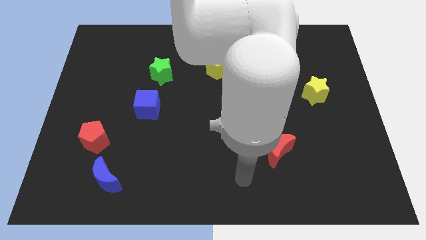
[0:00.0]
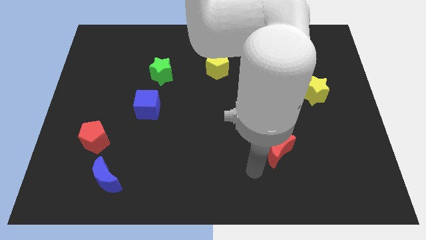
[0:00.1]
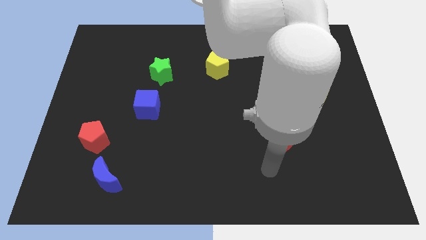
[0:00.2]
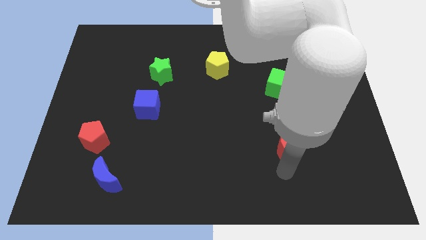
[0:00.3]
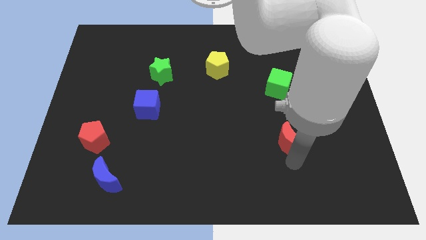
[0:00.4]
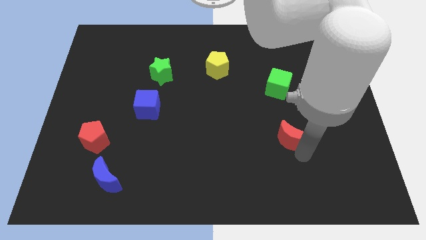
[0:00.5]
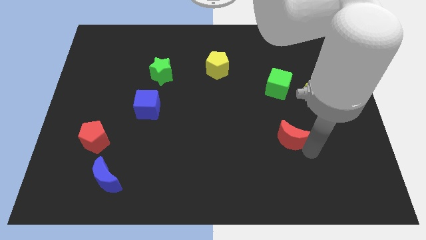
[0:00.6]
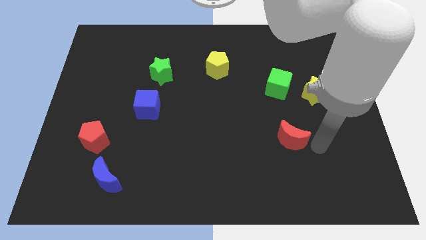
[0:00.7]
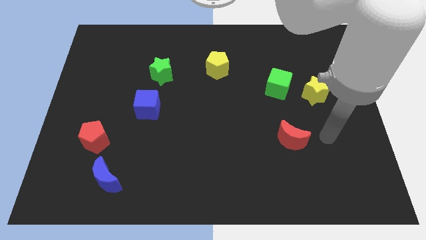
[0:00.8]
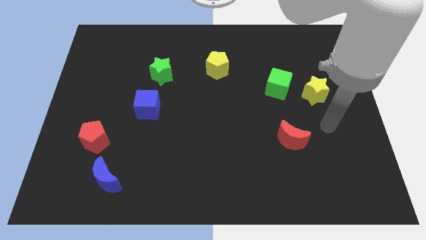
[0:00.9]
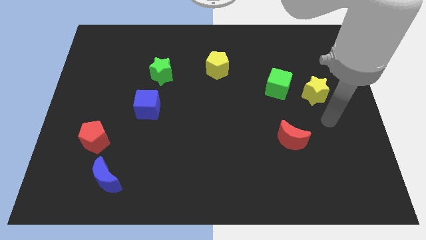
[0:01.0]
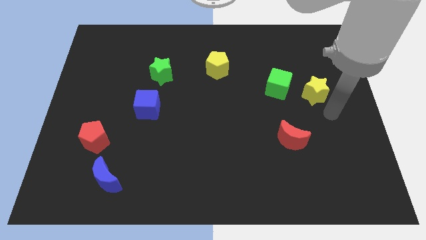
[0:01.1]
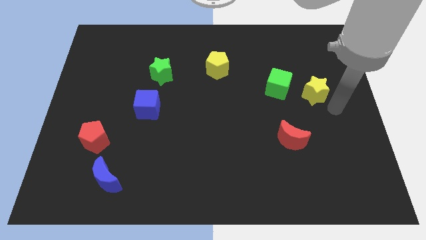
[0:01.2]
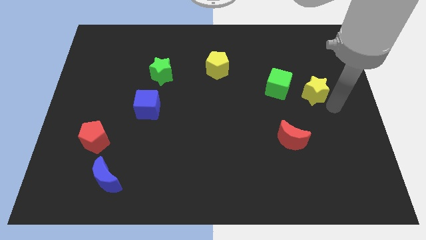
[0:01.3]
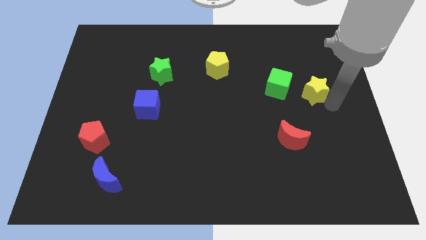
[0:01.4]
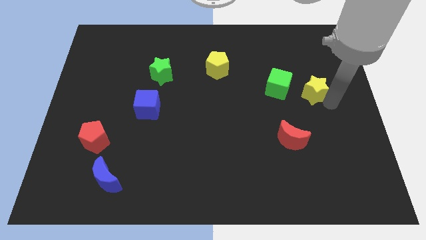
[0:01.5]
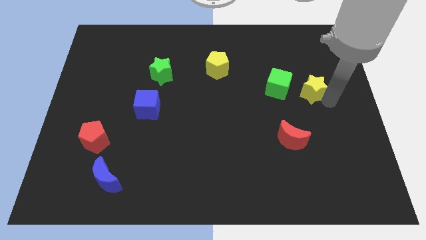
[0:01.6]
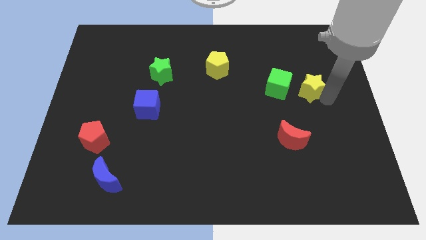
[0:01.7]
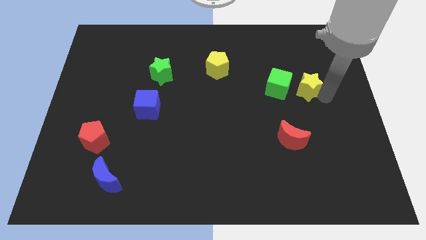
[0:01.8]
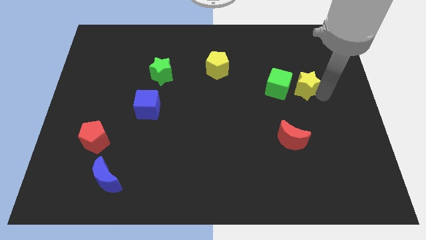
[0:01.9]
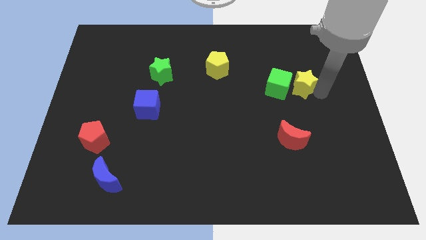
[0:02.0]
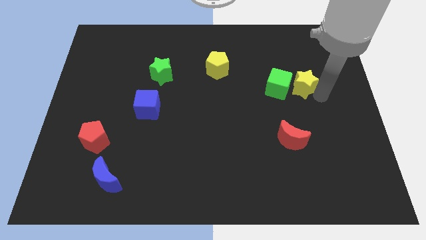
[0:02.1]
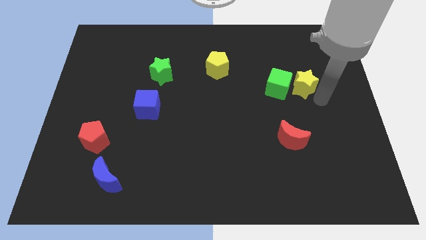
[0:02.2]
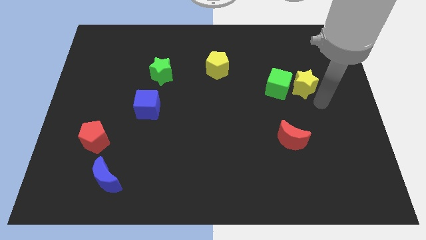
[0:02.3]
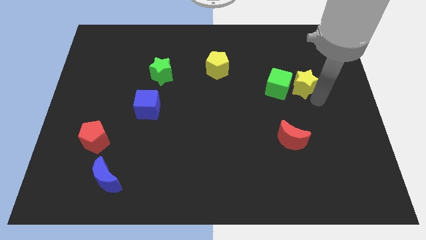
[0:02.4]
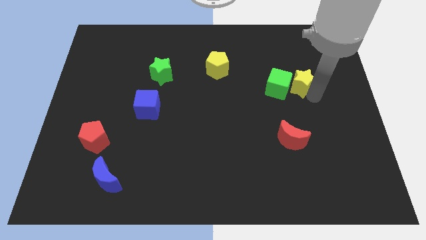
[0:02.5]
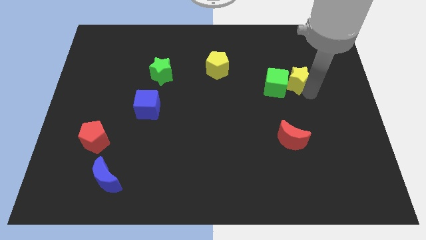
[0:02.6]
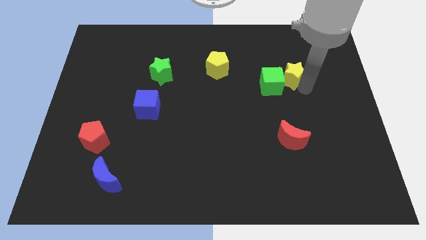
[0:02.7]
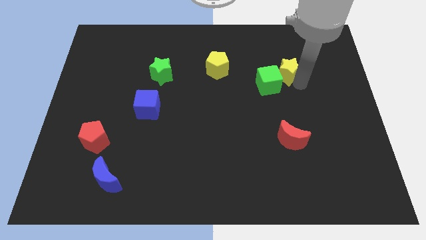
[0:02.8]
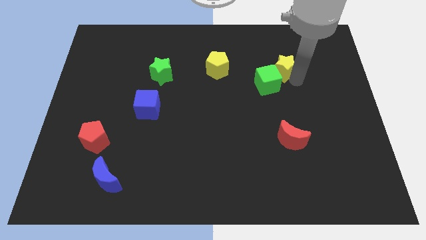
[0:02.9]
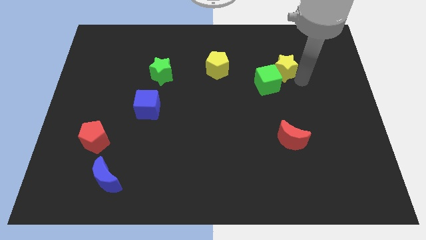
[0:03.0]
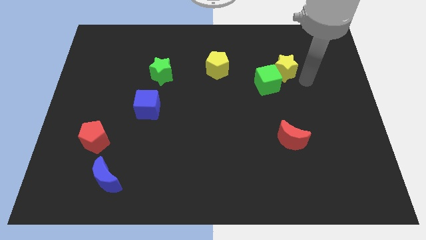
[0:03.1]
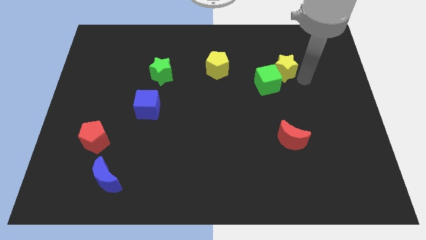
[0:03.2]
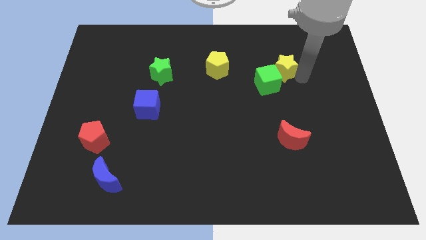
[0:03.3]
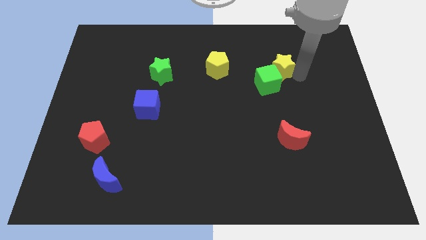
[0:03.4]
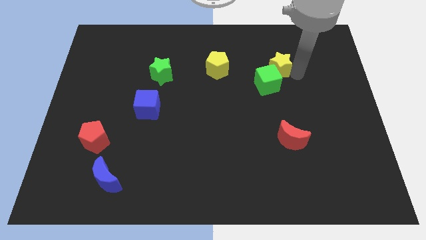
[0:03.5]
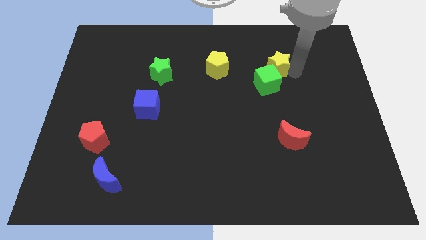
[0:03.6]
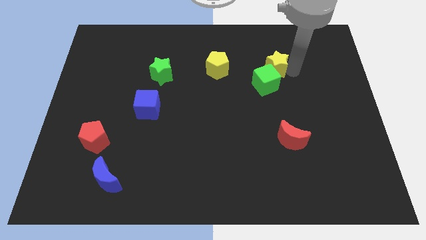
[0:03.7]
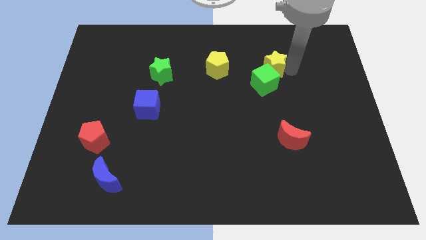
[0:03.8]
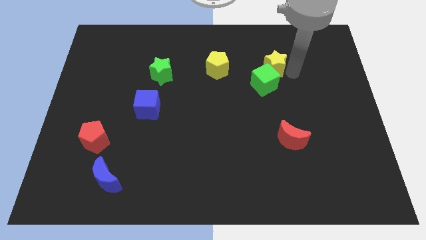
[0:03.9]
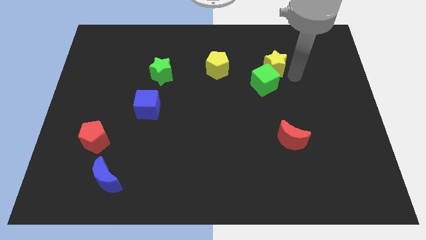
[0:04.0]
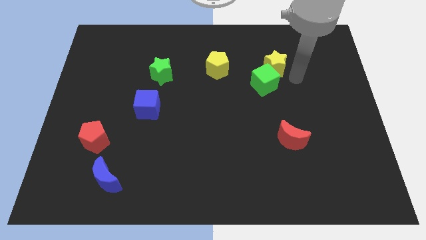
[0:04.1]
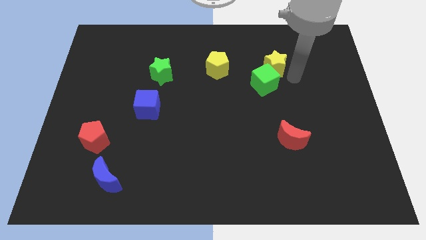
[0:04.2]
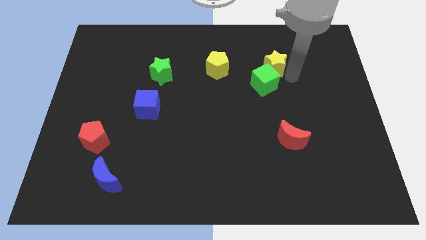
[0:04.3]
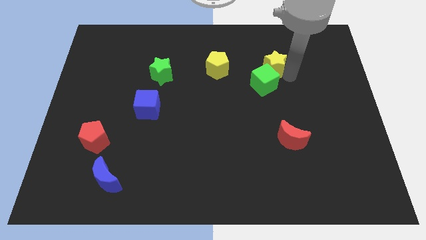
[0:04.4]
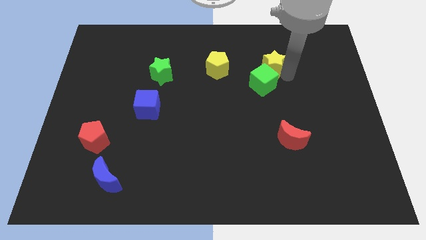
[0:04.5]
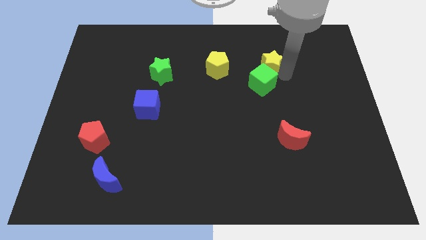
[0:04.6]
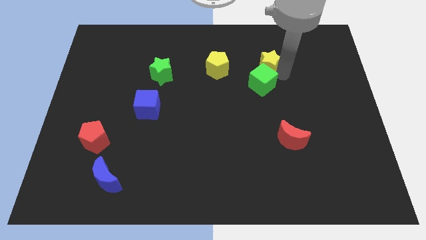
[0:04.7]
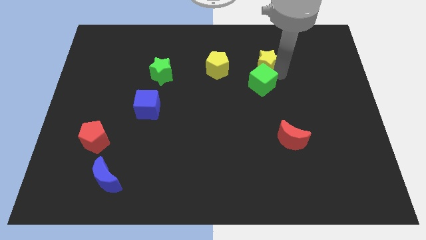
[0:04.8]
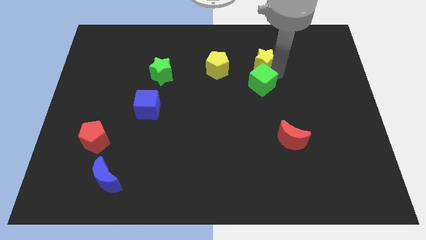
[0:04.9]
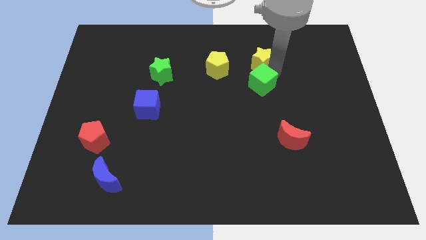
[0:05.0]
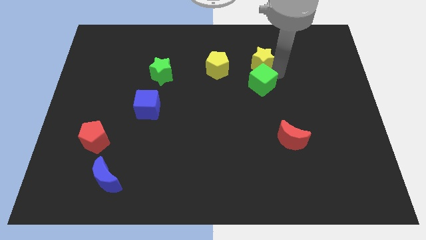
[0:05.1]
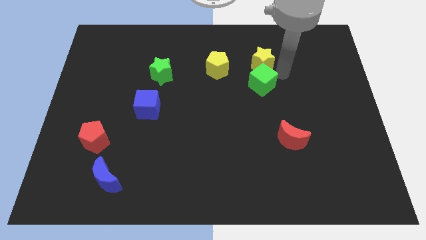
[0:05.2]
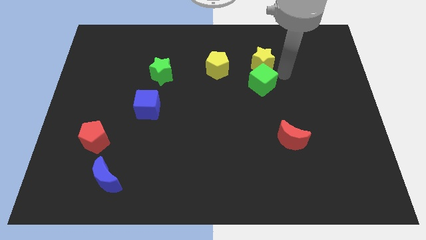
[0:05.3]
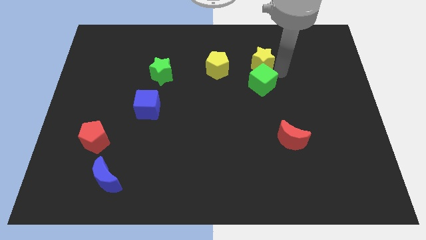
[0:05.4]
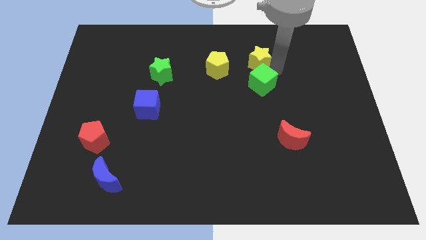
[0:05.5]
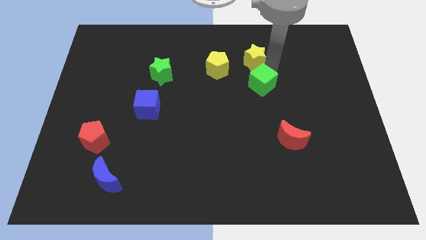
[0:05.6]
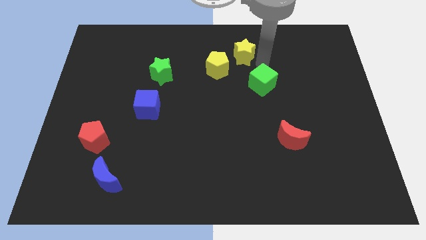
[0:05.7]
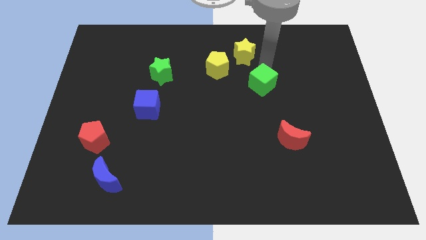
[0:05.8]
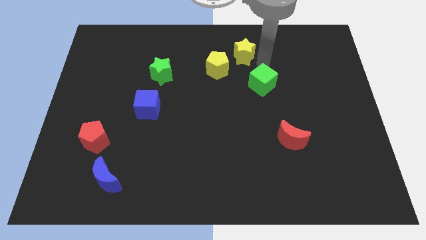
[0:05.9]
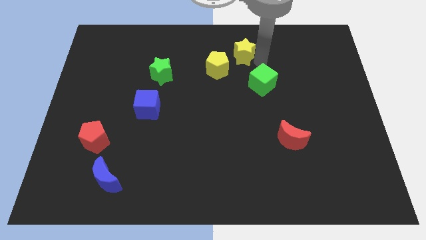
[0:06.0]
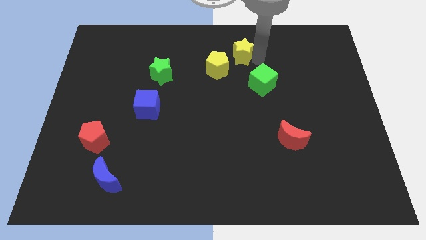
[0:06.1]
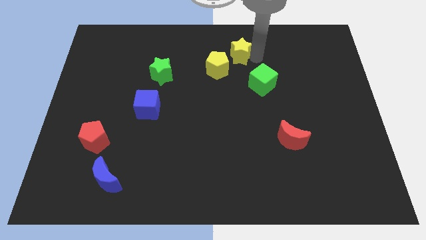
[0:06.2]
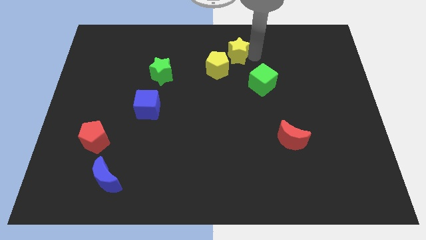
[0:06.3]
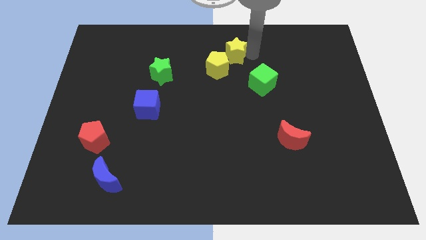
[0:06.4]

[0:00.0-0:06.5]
move the yellow star to the top side
